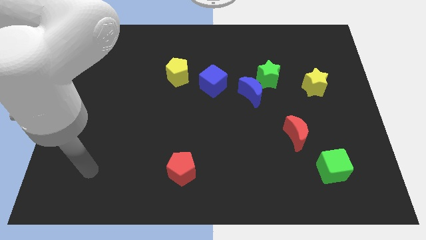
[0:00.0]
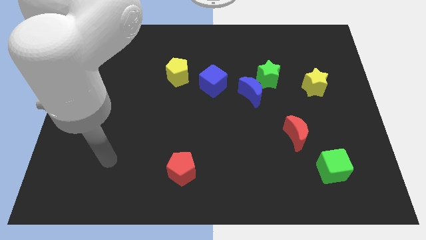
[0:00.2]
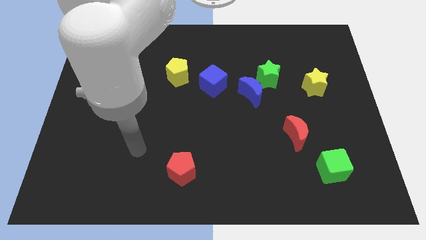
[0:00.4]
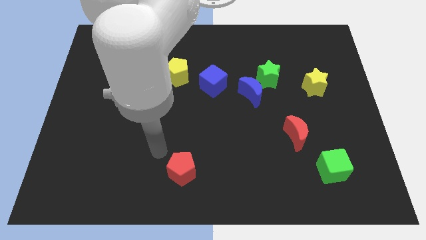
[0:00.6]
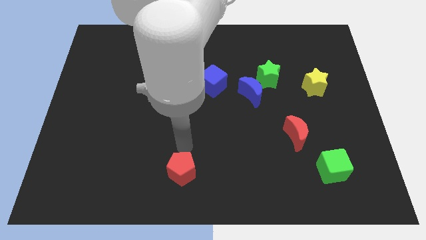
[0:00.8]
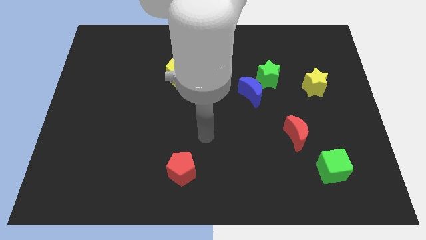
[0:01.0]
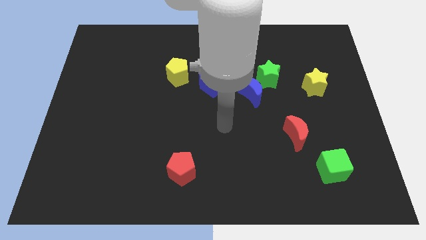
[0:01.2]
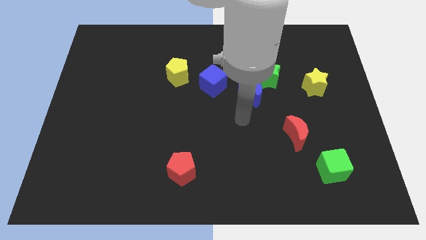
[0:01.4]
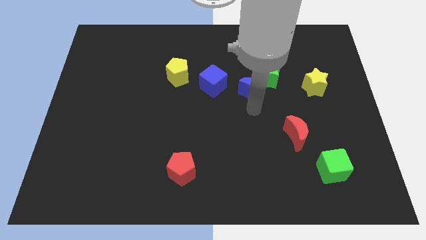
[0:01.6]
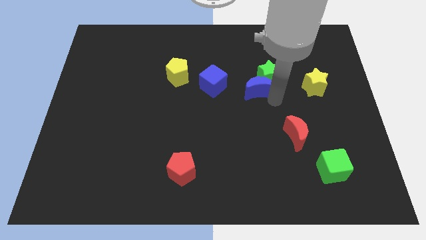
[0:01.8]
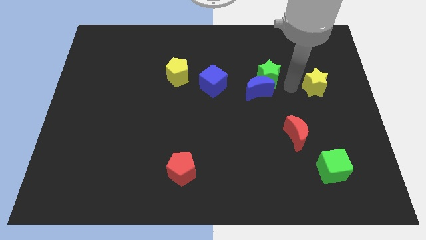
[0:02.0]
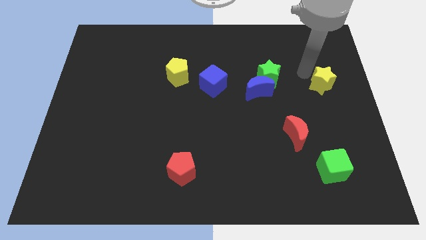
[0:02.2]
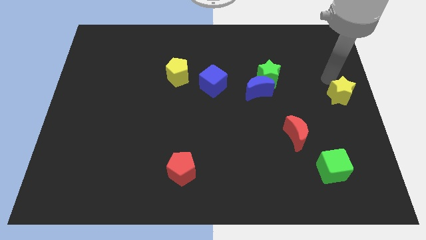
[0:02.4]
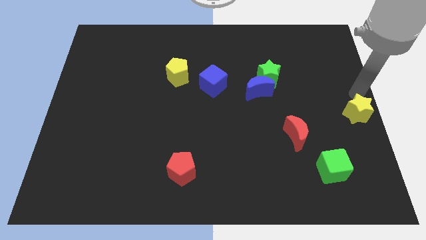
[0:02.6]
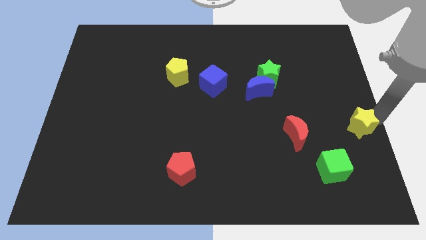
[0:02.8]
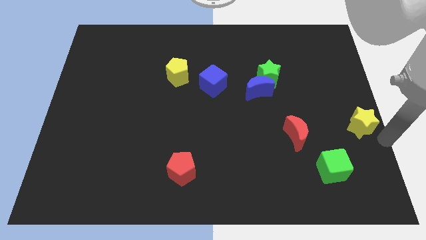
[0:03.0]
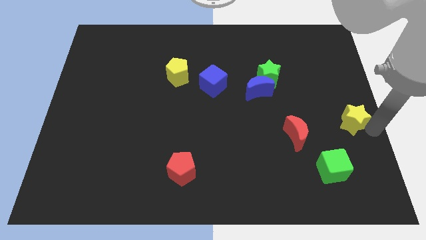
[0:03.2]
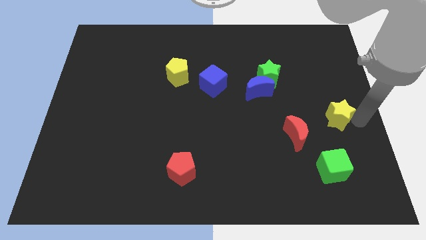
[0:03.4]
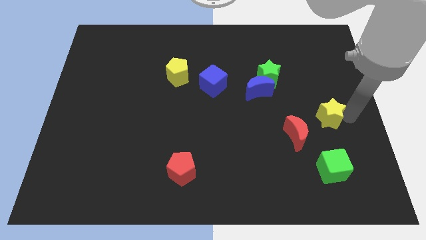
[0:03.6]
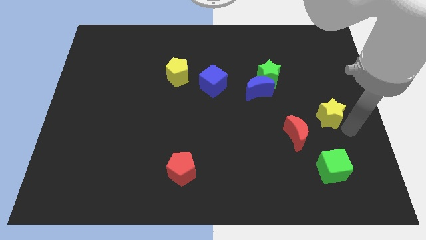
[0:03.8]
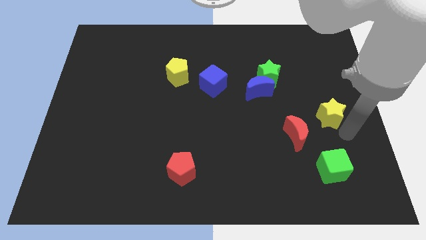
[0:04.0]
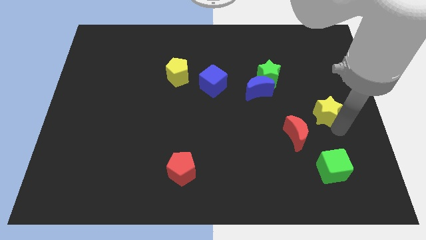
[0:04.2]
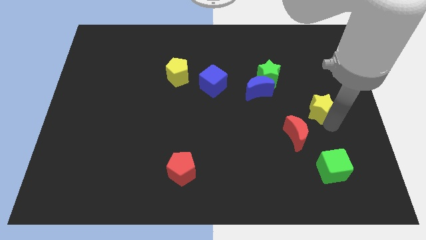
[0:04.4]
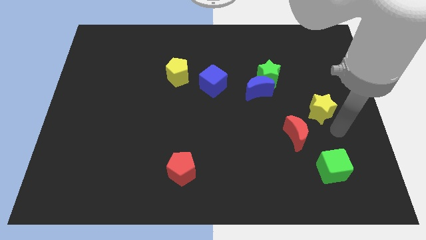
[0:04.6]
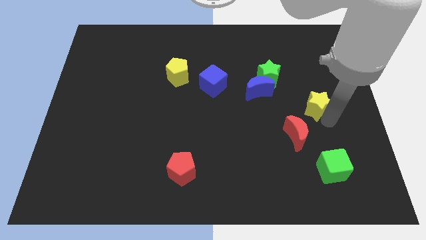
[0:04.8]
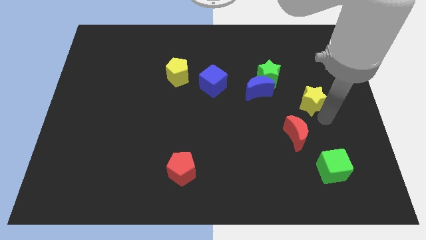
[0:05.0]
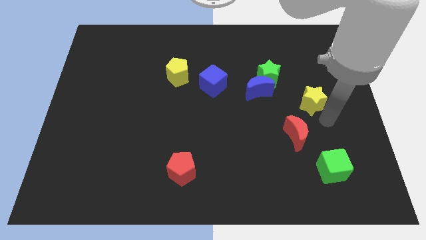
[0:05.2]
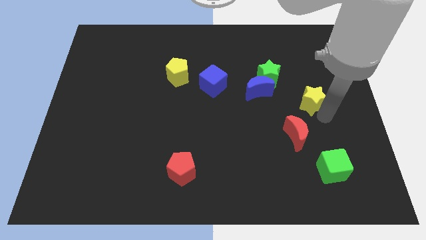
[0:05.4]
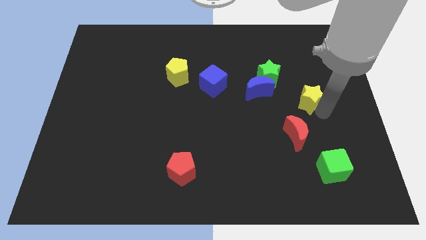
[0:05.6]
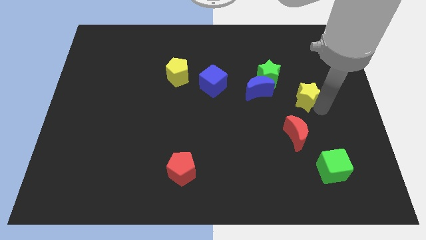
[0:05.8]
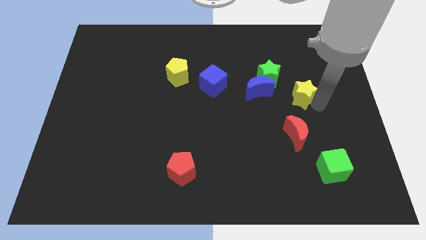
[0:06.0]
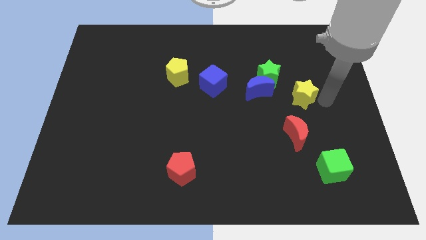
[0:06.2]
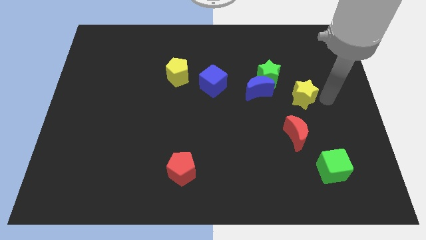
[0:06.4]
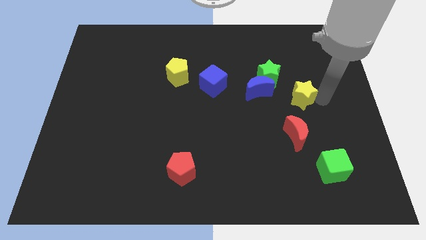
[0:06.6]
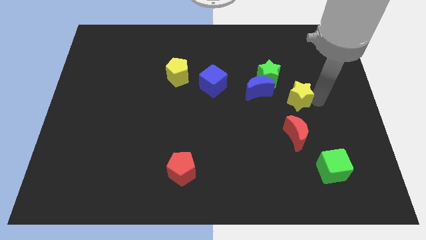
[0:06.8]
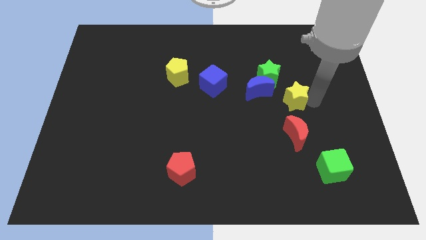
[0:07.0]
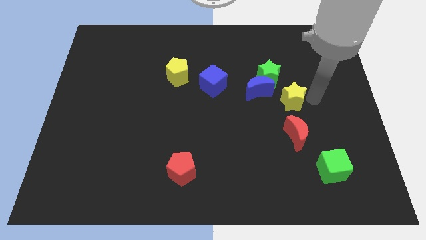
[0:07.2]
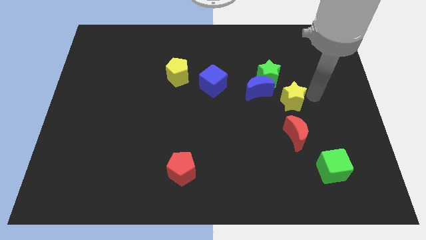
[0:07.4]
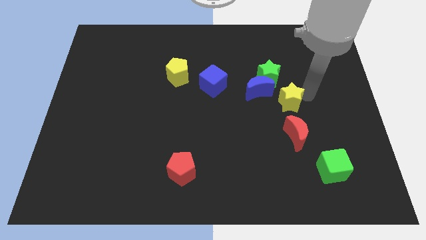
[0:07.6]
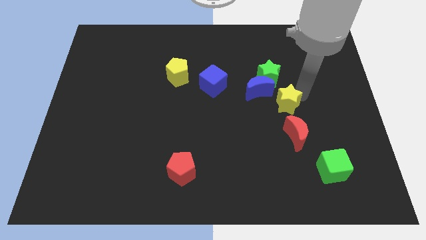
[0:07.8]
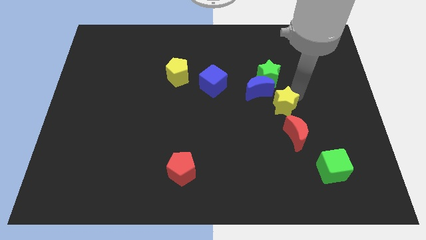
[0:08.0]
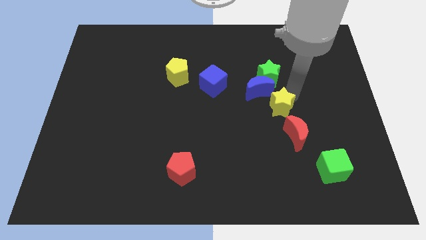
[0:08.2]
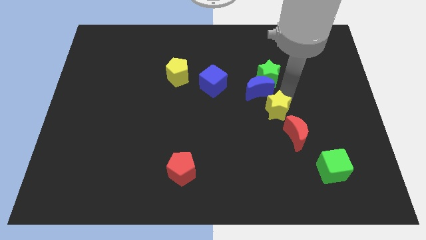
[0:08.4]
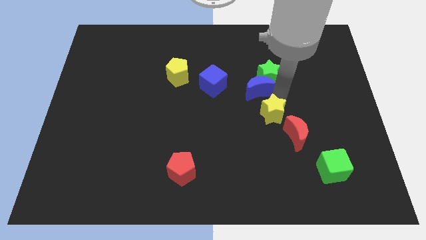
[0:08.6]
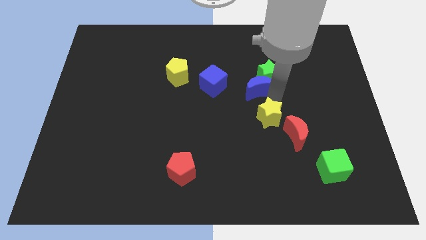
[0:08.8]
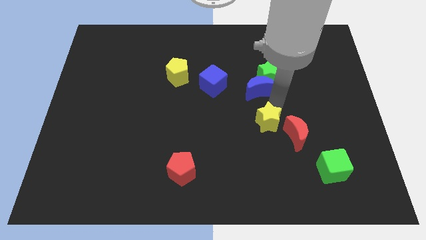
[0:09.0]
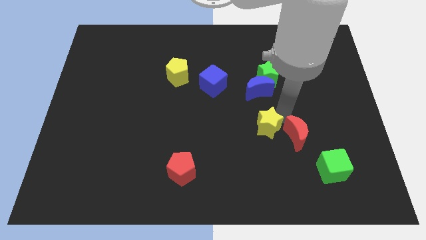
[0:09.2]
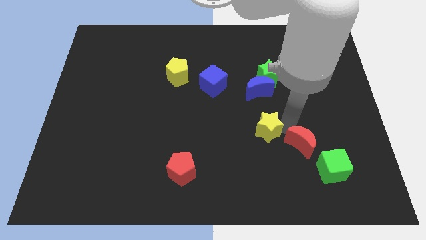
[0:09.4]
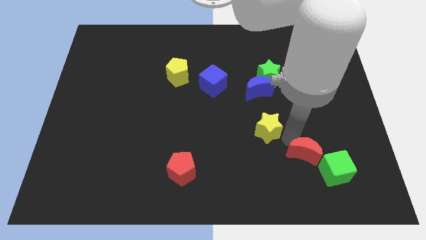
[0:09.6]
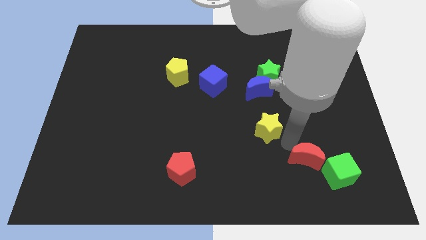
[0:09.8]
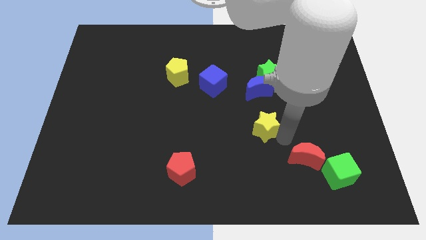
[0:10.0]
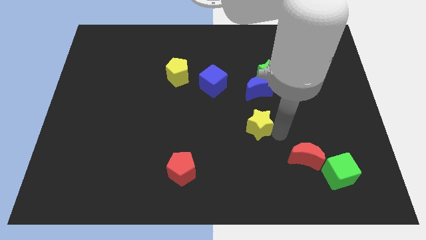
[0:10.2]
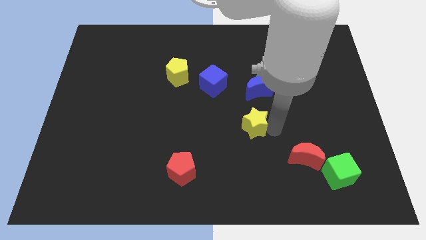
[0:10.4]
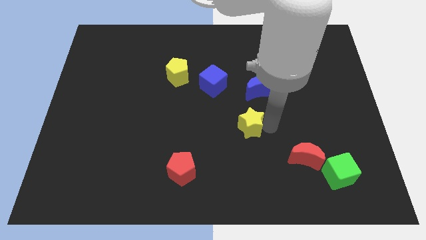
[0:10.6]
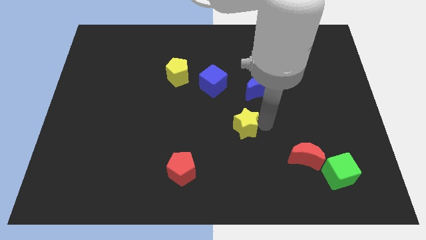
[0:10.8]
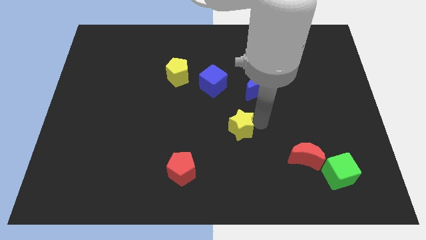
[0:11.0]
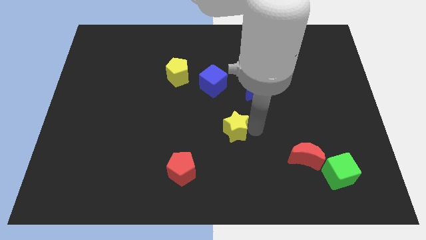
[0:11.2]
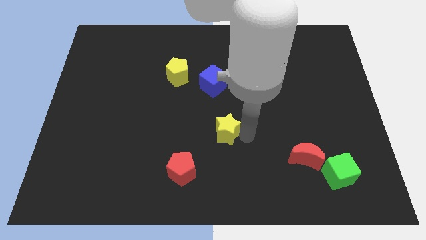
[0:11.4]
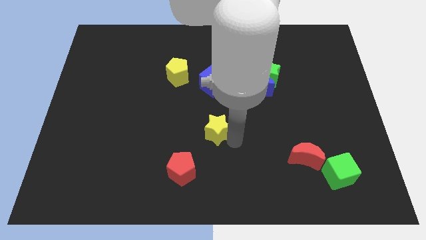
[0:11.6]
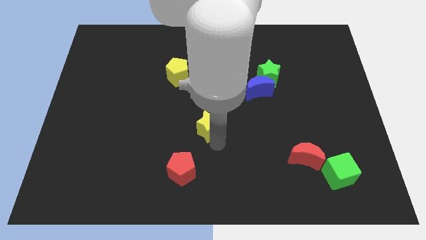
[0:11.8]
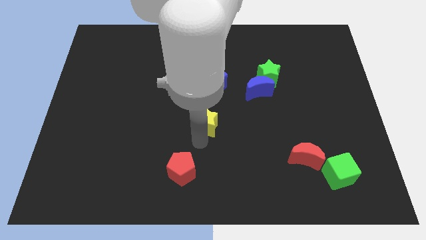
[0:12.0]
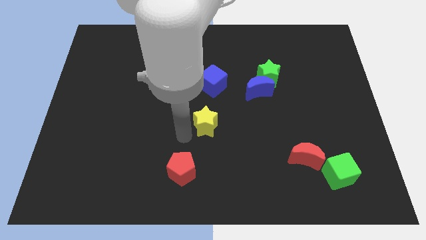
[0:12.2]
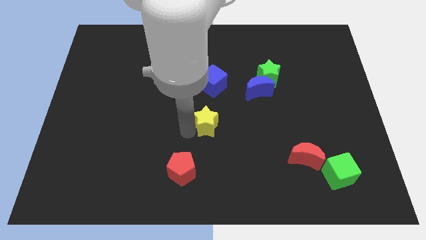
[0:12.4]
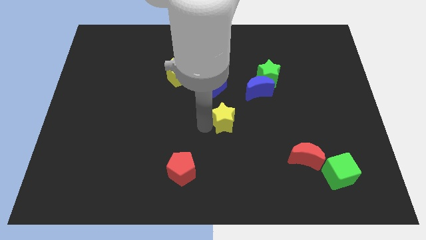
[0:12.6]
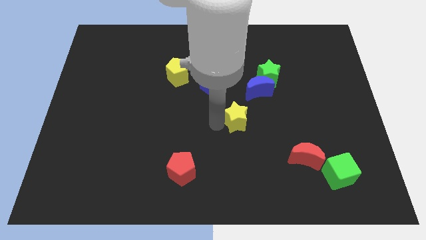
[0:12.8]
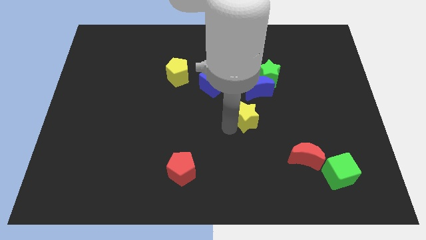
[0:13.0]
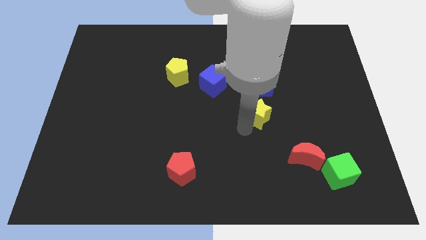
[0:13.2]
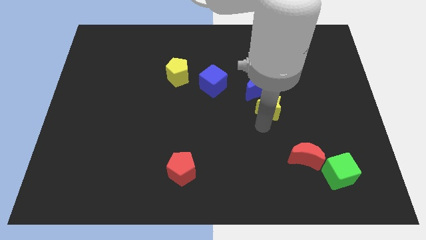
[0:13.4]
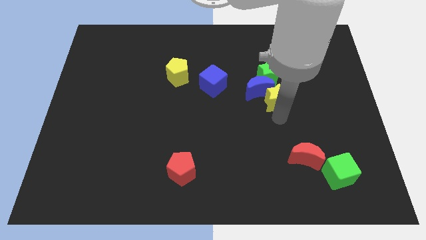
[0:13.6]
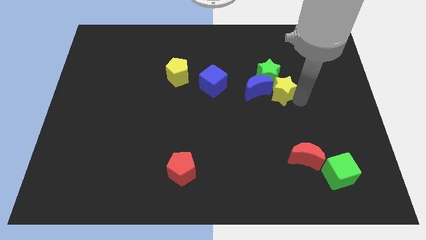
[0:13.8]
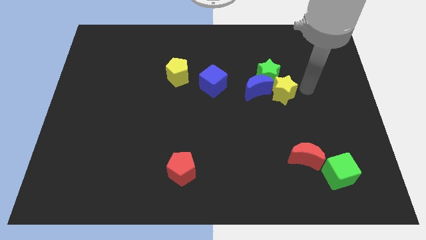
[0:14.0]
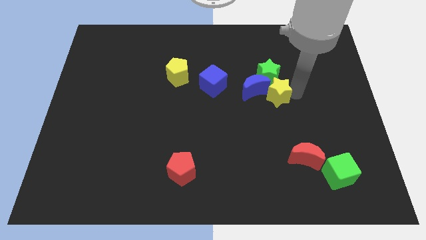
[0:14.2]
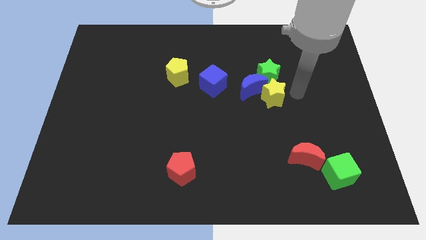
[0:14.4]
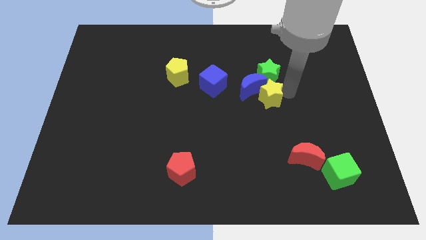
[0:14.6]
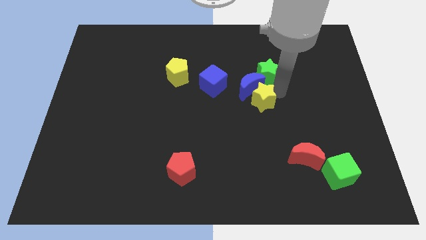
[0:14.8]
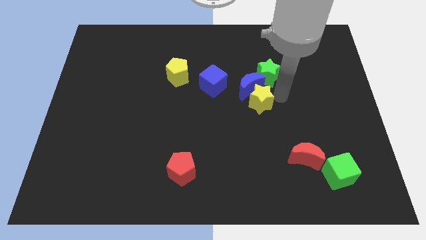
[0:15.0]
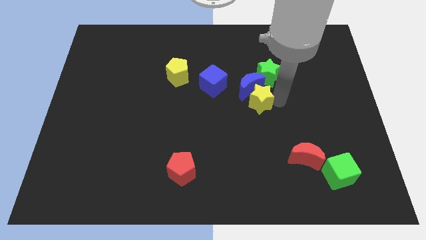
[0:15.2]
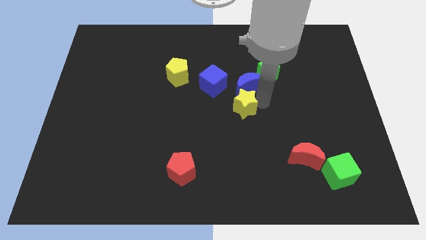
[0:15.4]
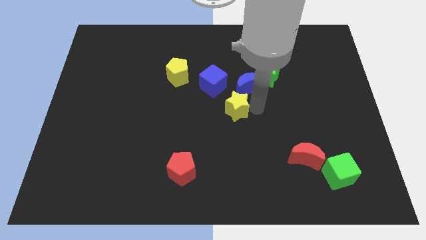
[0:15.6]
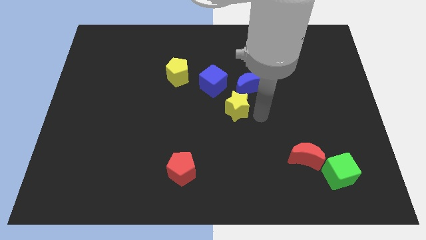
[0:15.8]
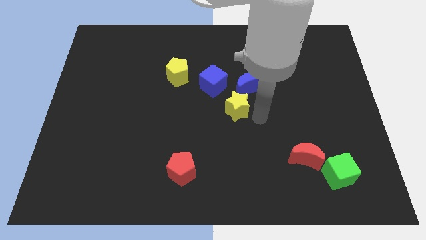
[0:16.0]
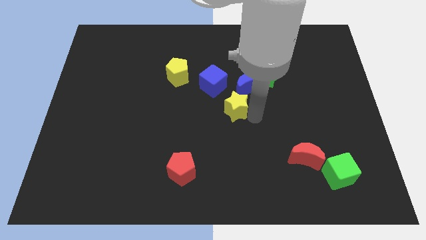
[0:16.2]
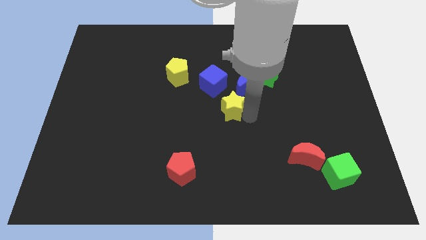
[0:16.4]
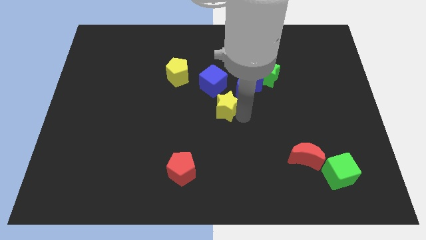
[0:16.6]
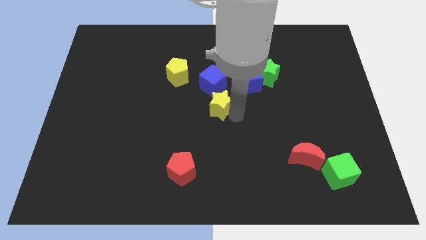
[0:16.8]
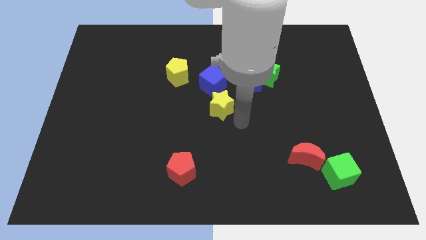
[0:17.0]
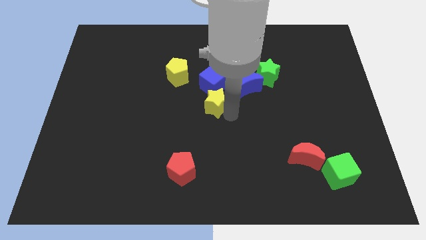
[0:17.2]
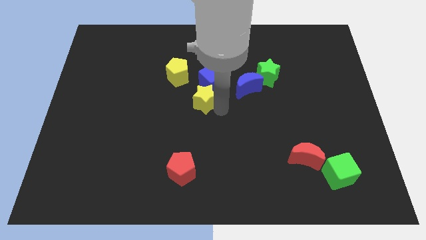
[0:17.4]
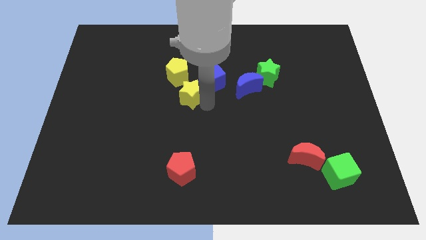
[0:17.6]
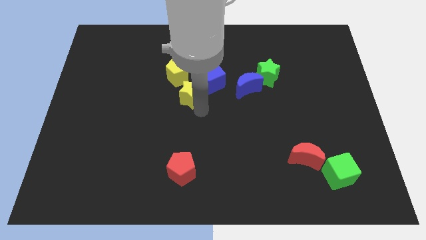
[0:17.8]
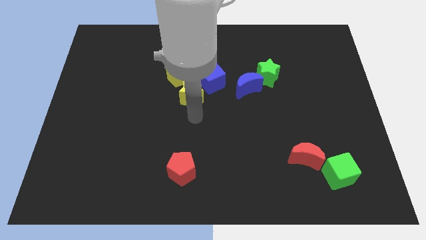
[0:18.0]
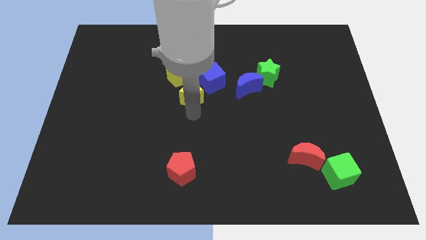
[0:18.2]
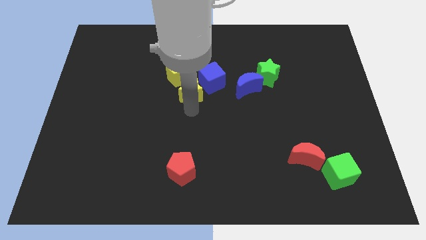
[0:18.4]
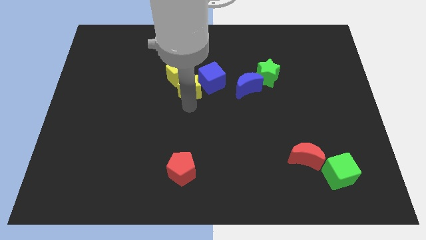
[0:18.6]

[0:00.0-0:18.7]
put the yellow star to the yellow pentagon
